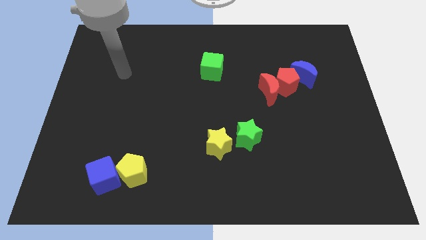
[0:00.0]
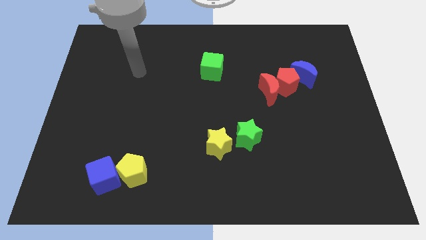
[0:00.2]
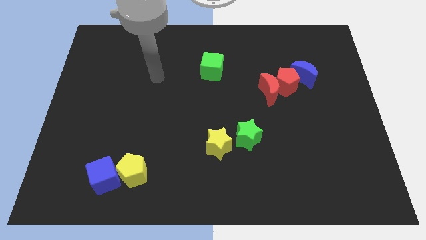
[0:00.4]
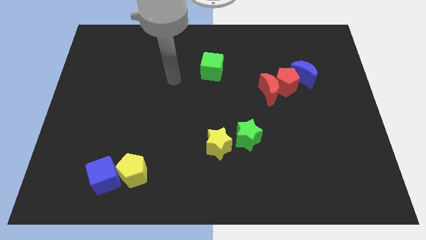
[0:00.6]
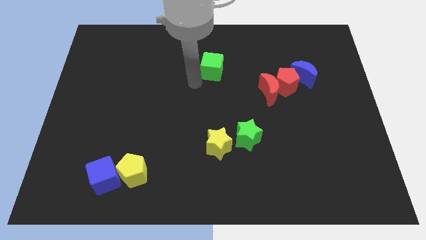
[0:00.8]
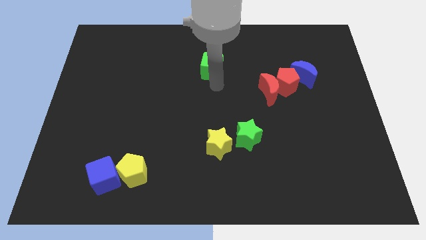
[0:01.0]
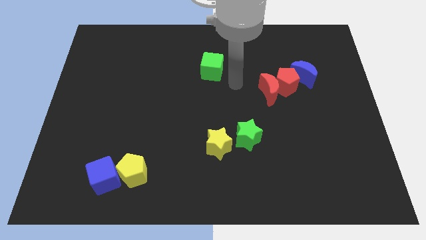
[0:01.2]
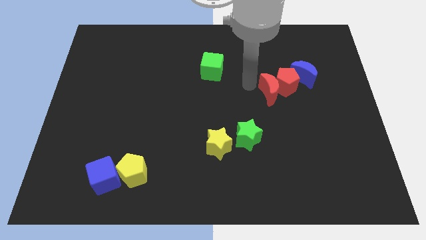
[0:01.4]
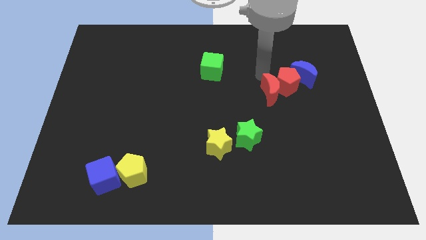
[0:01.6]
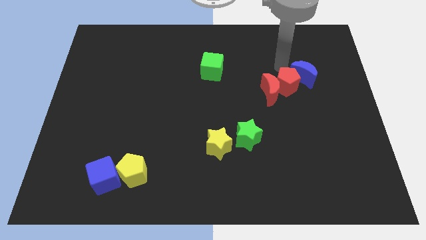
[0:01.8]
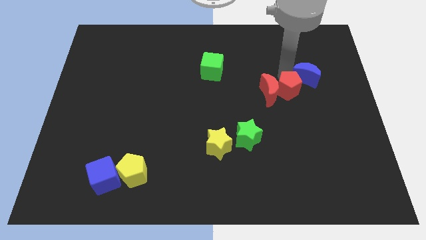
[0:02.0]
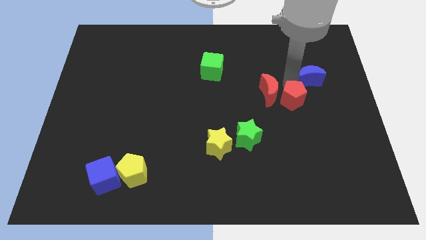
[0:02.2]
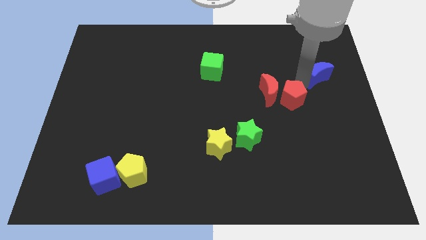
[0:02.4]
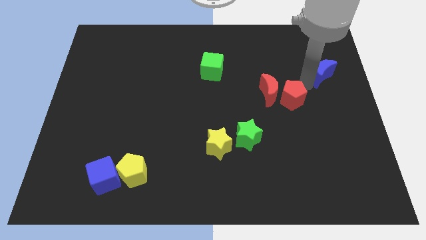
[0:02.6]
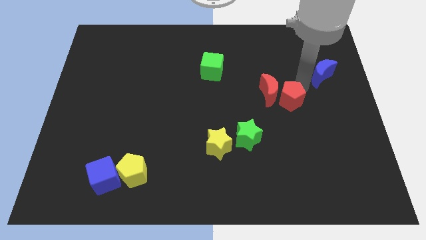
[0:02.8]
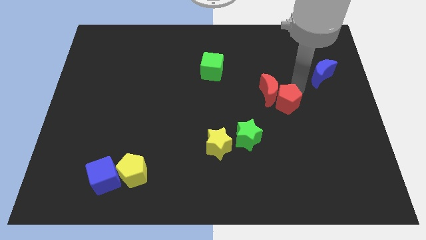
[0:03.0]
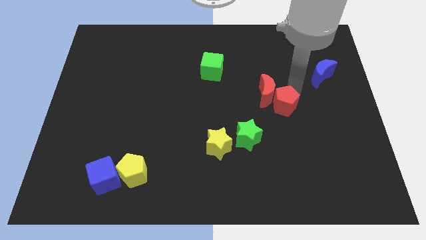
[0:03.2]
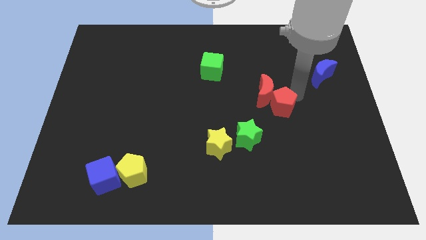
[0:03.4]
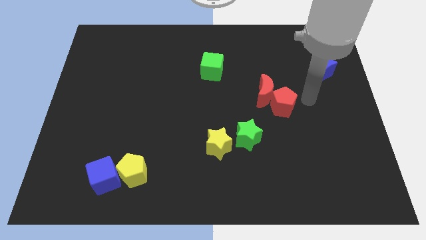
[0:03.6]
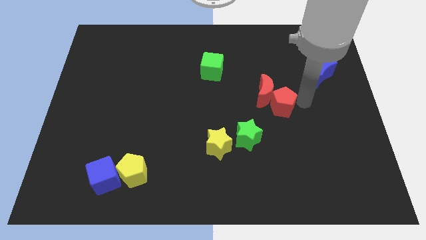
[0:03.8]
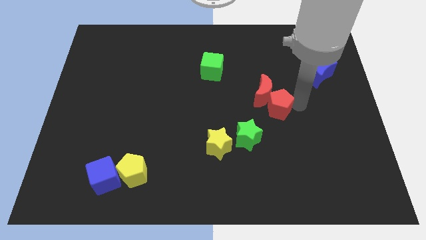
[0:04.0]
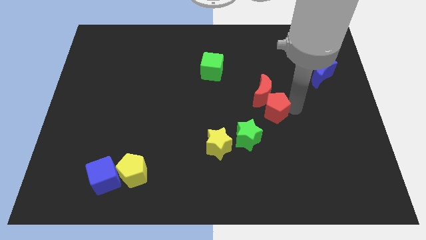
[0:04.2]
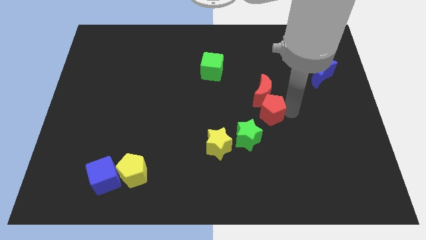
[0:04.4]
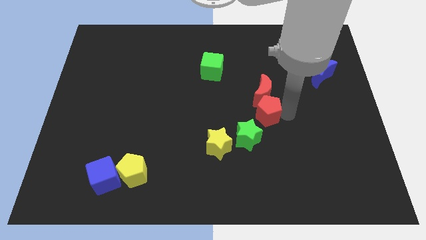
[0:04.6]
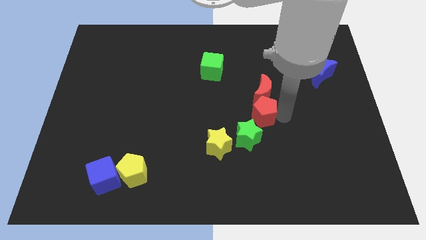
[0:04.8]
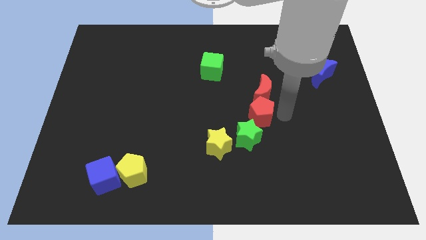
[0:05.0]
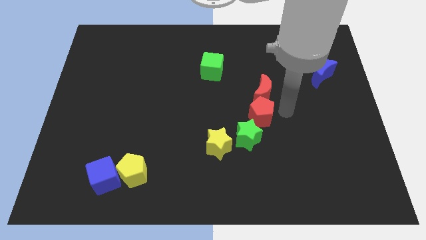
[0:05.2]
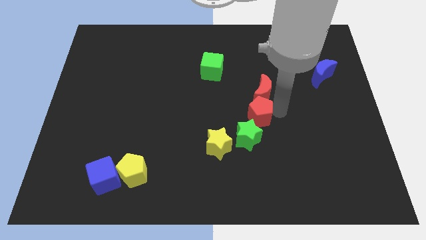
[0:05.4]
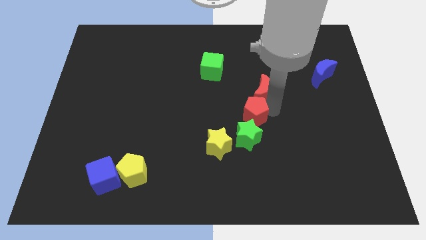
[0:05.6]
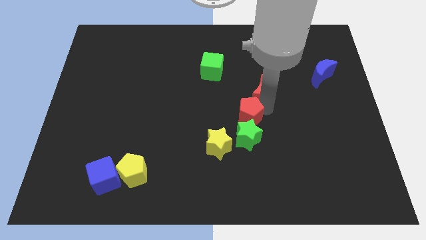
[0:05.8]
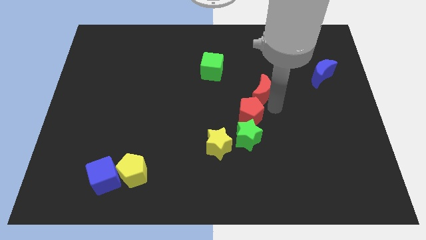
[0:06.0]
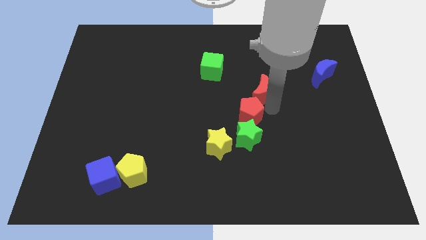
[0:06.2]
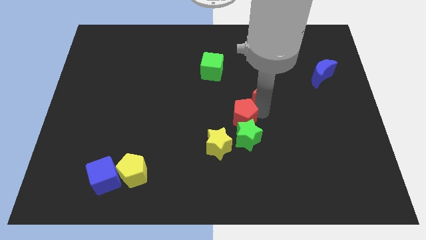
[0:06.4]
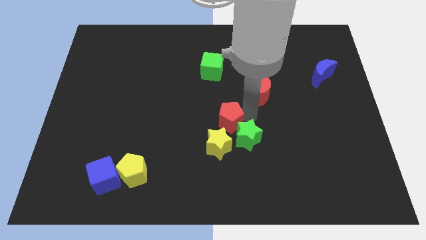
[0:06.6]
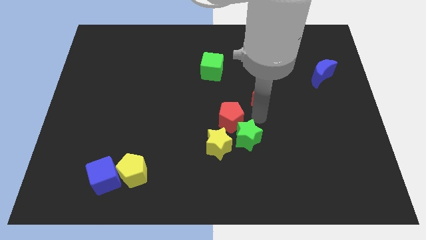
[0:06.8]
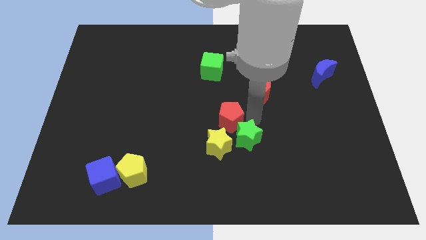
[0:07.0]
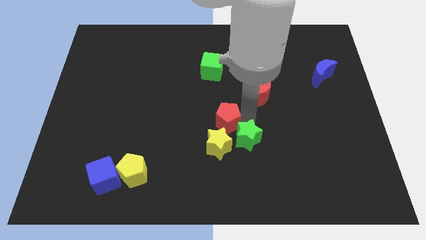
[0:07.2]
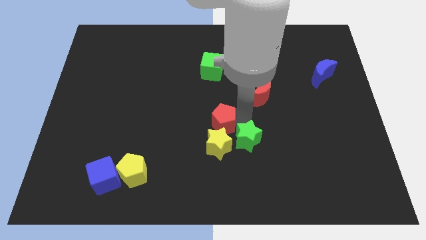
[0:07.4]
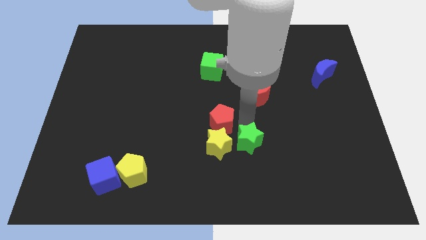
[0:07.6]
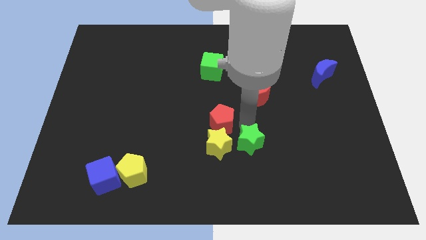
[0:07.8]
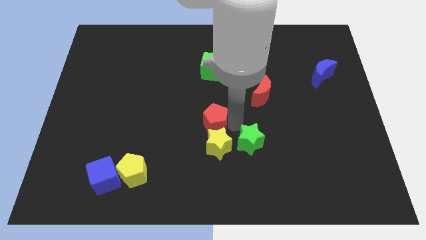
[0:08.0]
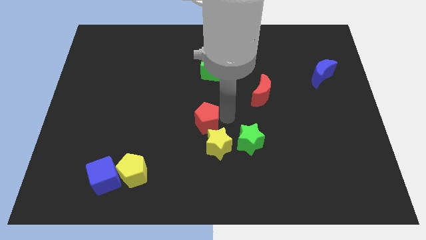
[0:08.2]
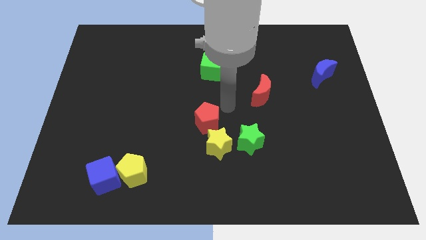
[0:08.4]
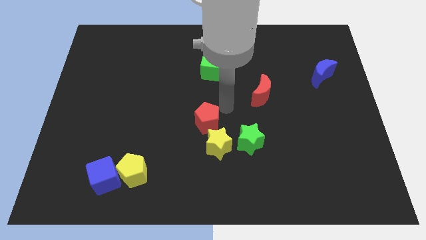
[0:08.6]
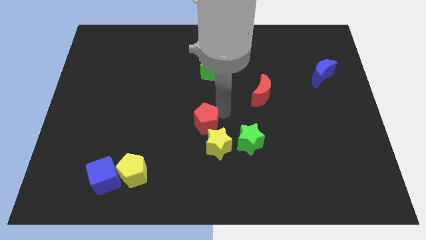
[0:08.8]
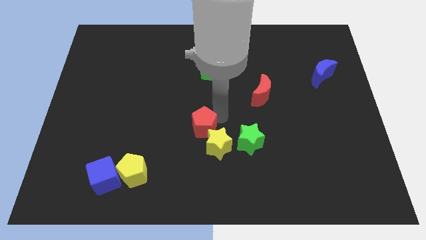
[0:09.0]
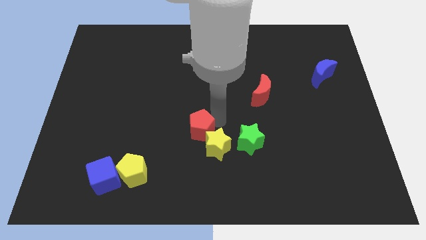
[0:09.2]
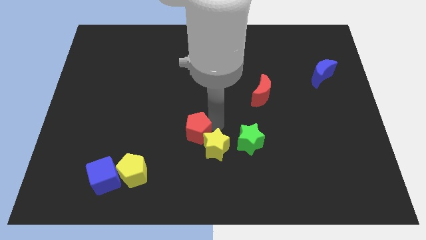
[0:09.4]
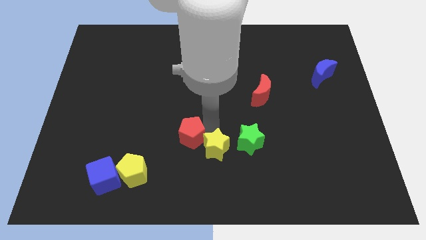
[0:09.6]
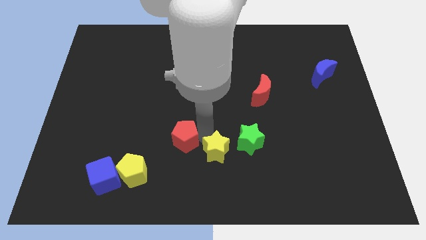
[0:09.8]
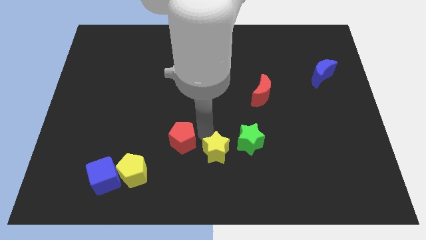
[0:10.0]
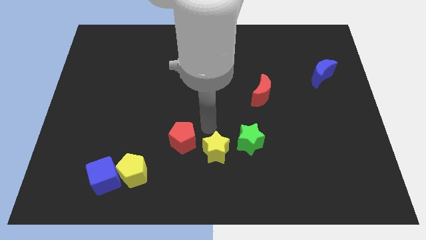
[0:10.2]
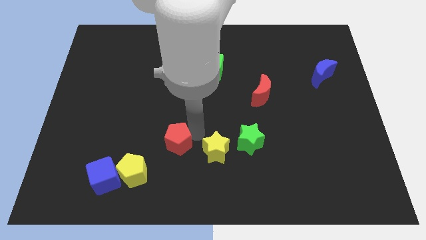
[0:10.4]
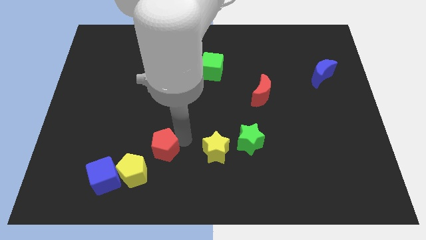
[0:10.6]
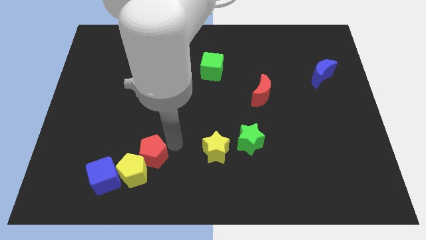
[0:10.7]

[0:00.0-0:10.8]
put the red pentagon next to the yellow pentagon

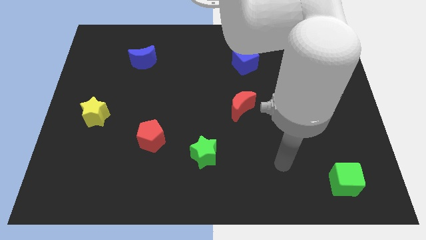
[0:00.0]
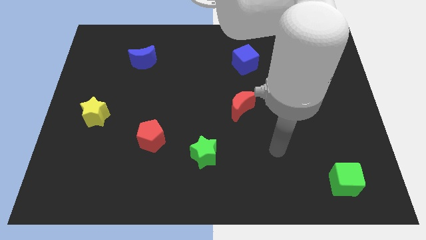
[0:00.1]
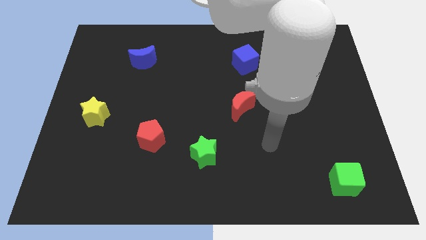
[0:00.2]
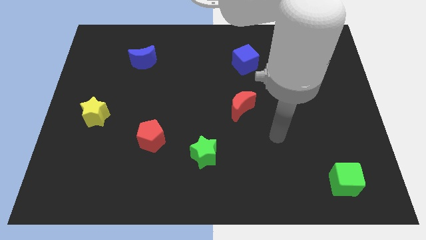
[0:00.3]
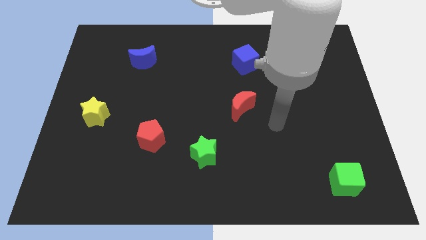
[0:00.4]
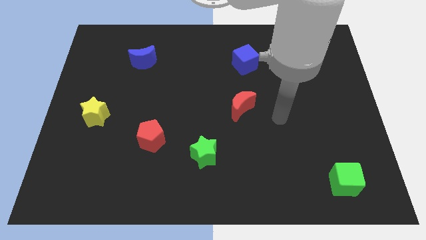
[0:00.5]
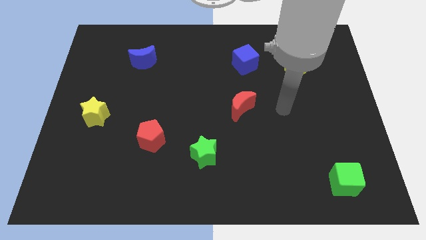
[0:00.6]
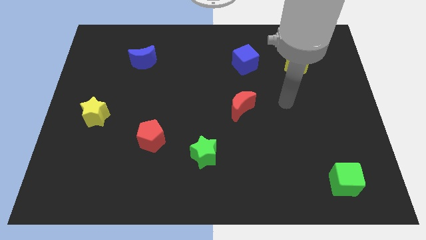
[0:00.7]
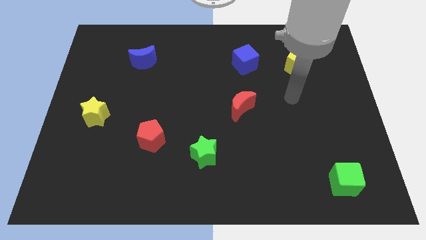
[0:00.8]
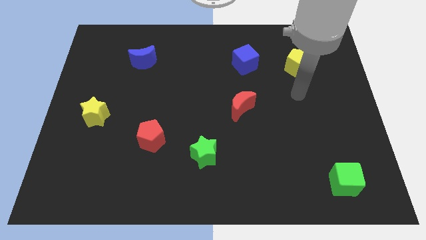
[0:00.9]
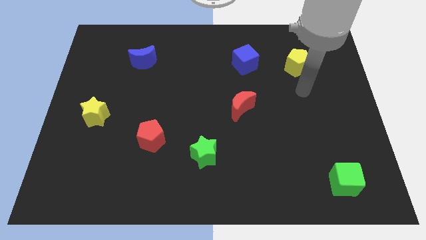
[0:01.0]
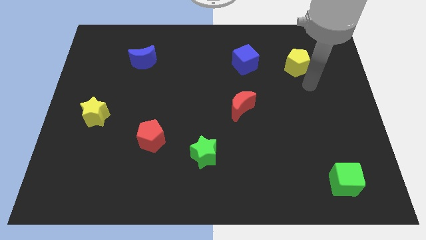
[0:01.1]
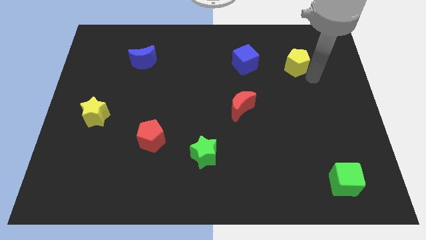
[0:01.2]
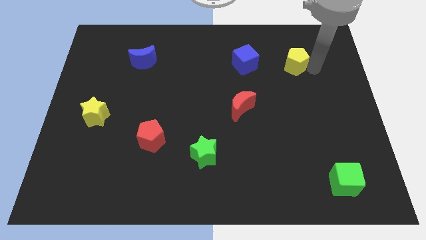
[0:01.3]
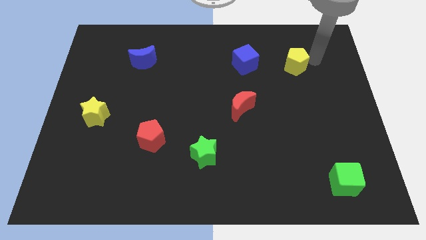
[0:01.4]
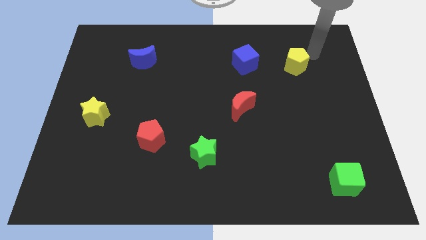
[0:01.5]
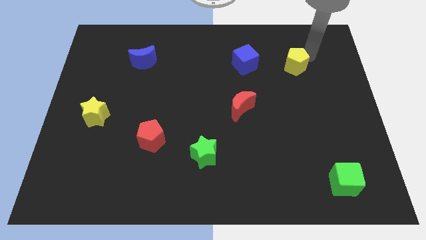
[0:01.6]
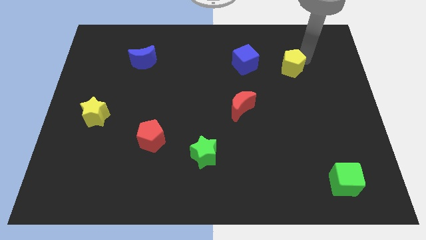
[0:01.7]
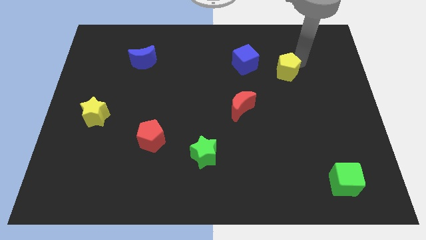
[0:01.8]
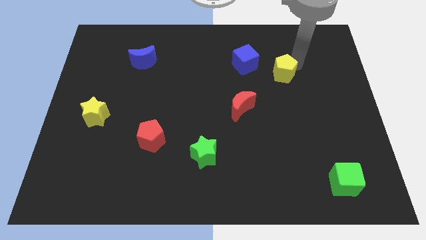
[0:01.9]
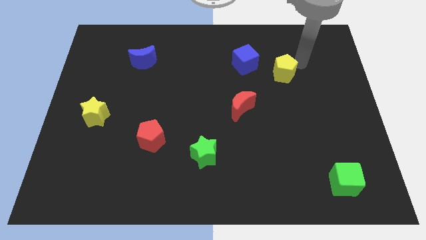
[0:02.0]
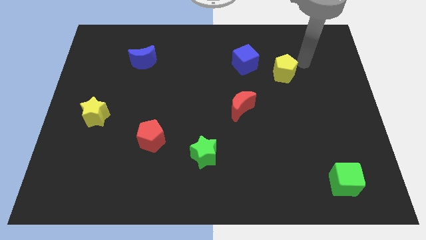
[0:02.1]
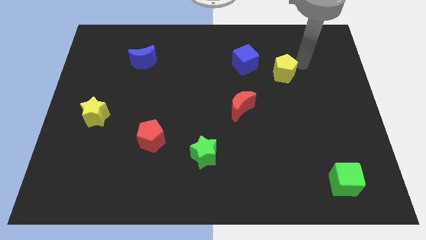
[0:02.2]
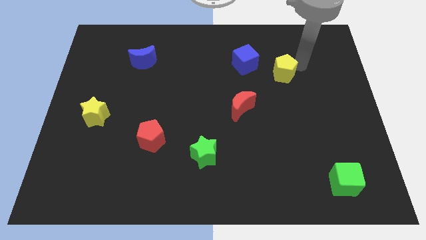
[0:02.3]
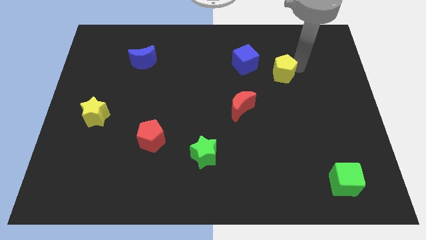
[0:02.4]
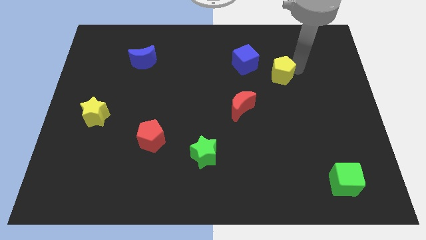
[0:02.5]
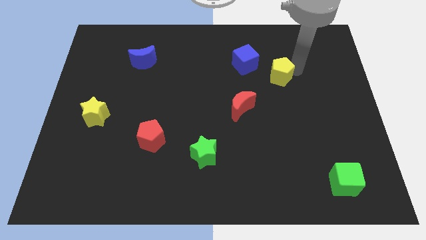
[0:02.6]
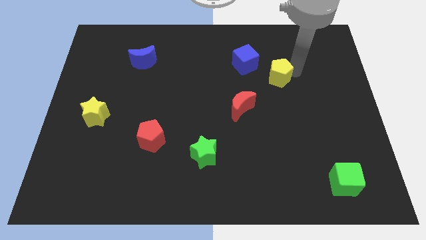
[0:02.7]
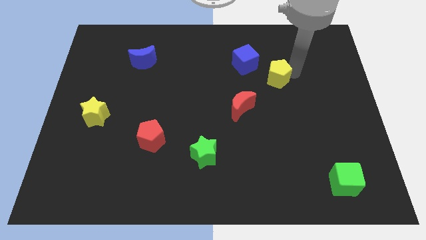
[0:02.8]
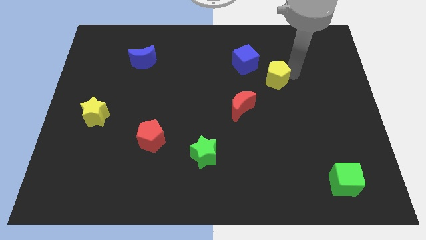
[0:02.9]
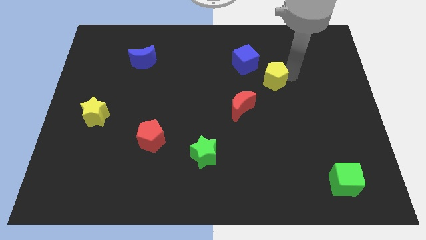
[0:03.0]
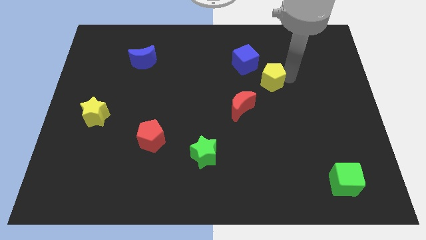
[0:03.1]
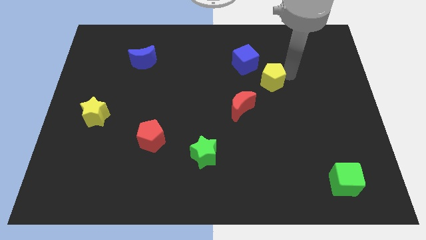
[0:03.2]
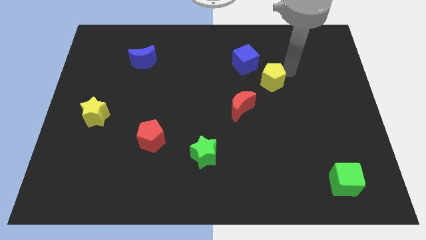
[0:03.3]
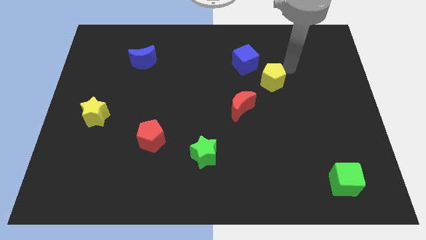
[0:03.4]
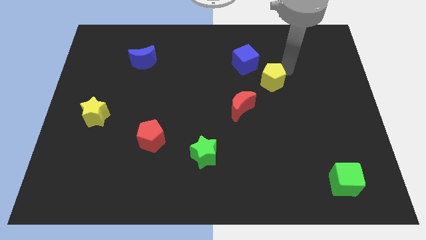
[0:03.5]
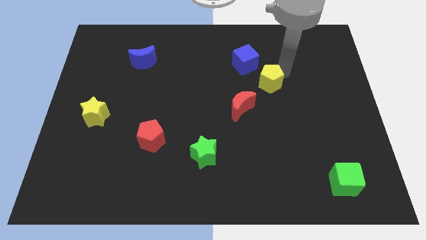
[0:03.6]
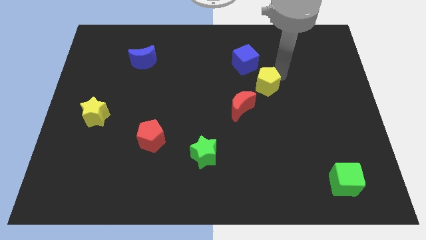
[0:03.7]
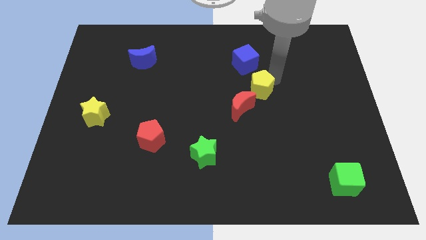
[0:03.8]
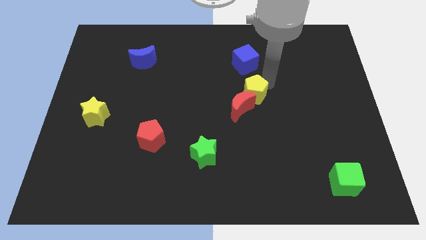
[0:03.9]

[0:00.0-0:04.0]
slide the yellow pentagon to the red moon
